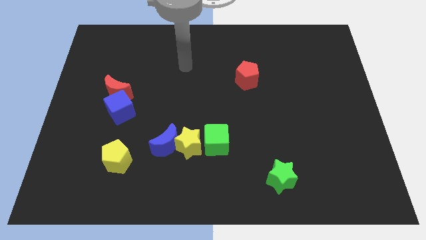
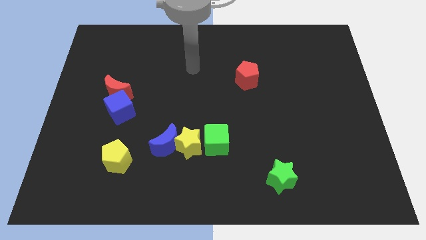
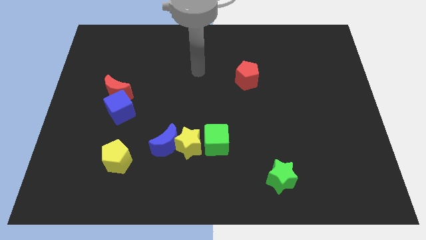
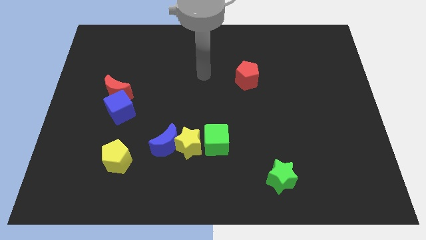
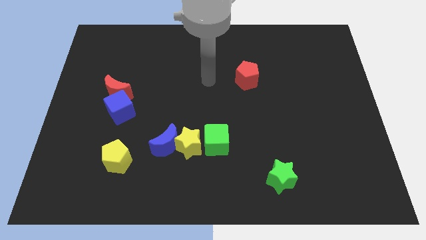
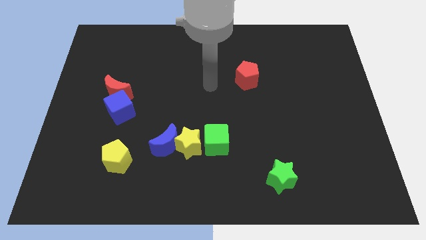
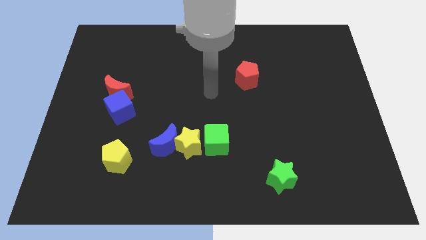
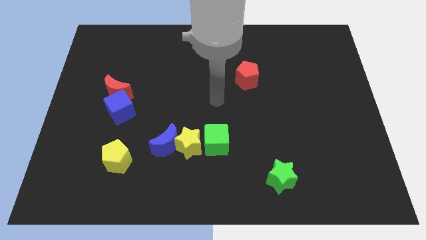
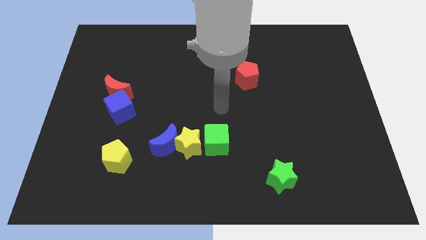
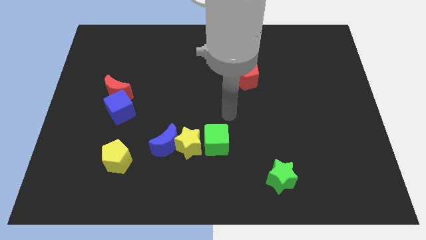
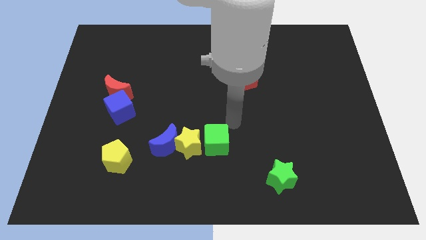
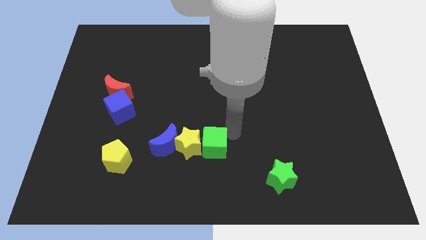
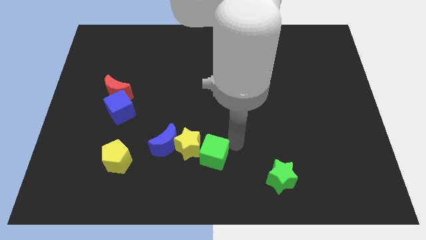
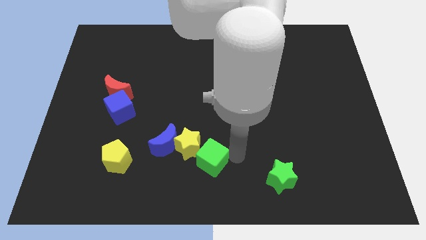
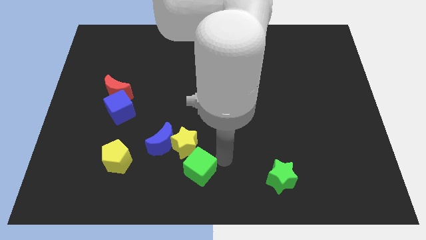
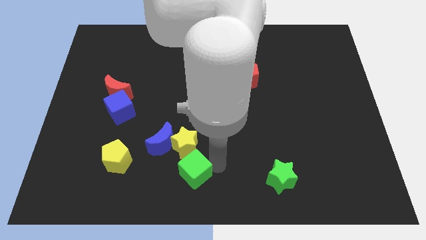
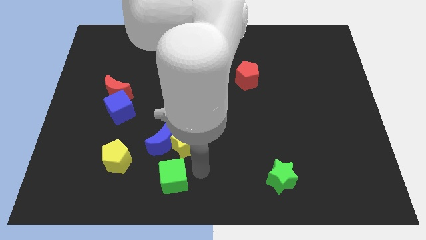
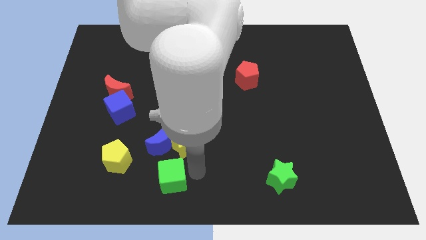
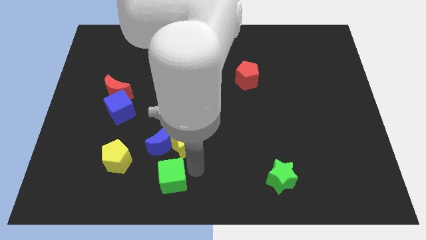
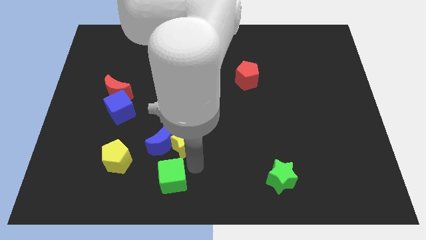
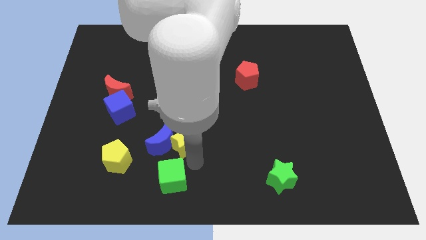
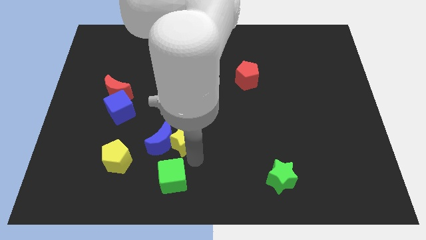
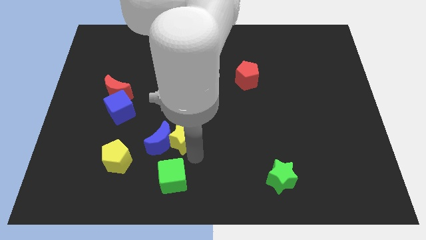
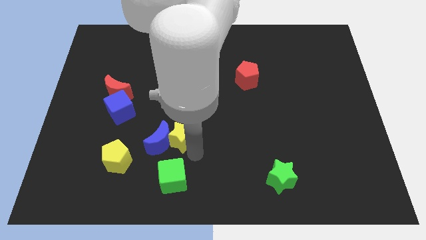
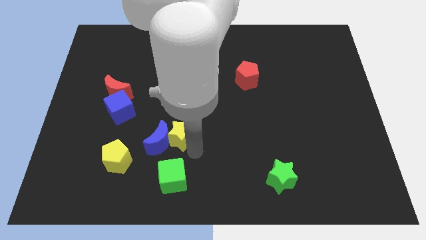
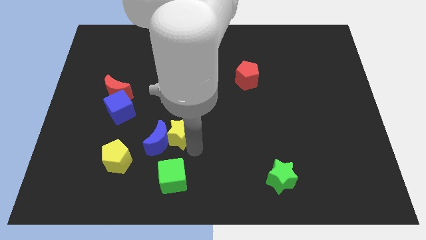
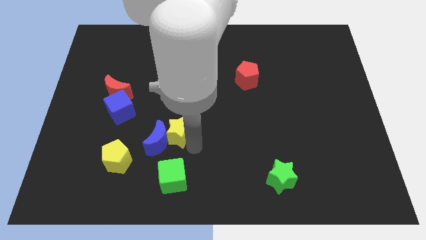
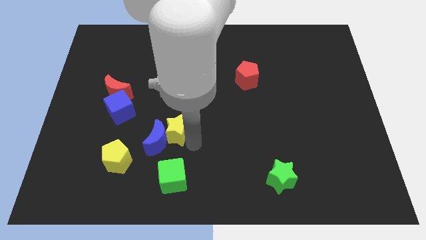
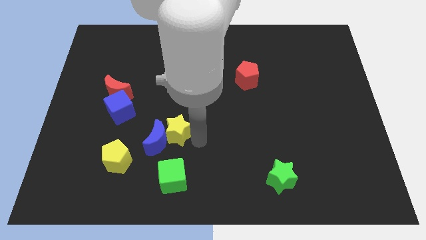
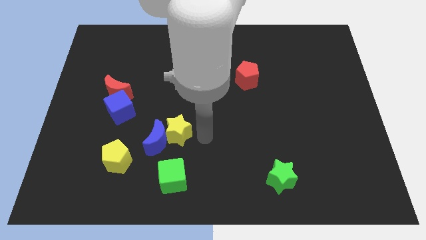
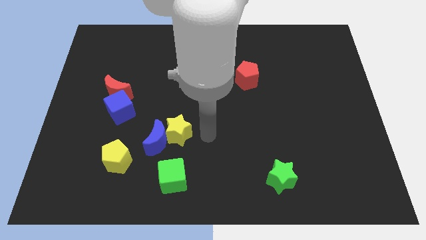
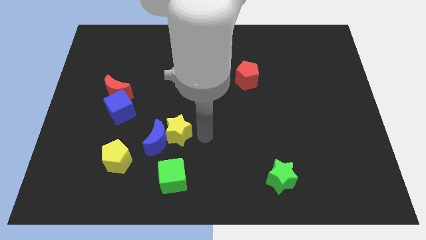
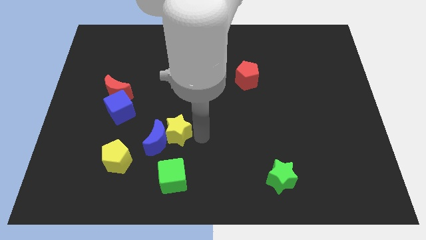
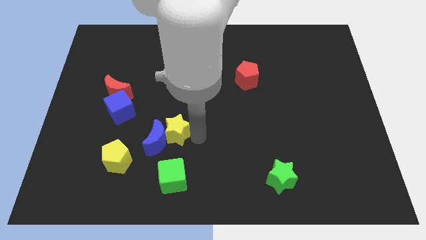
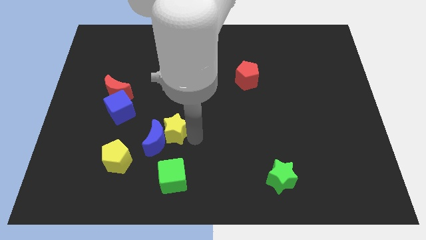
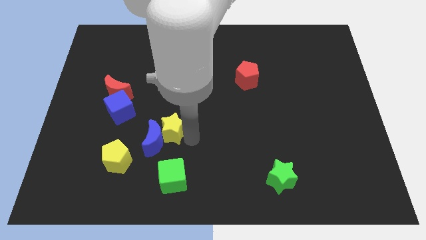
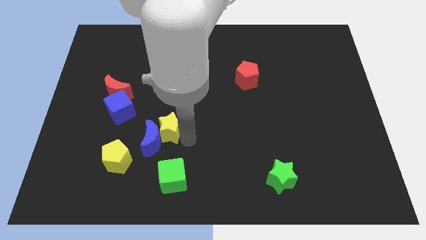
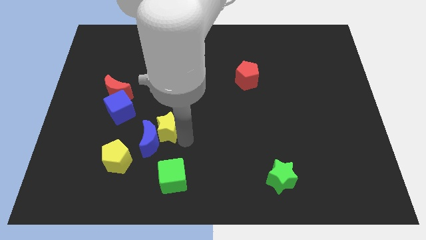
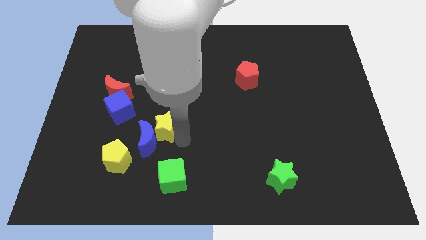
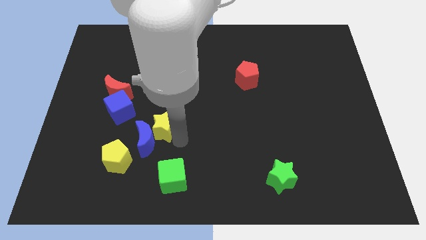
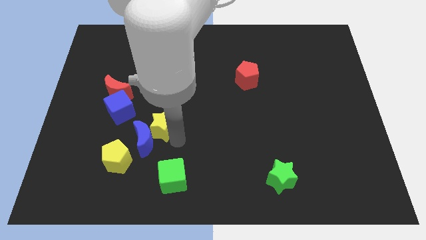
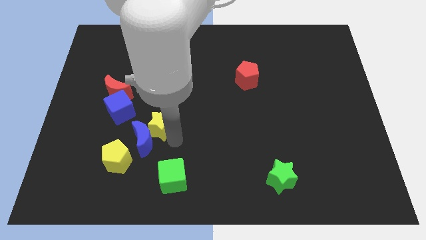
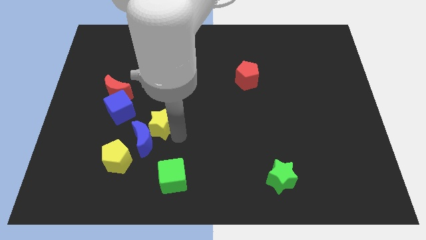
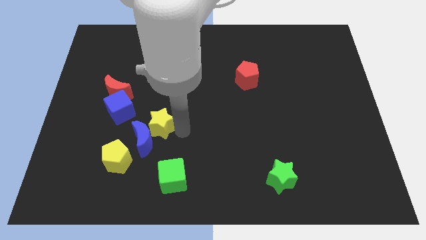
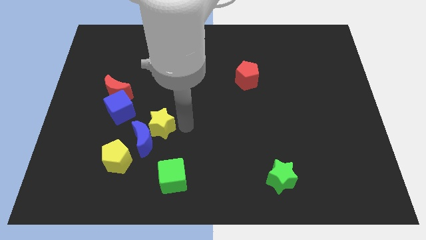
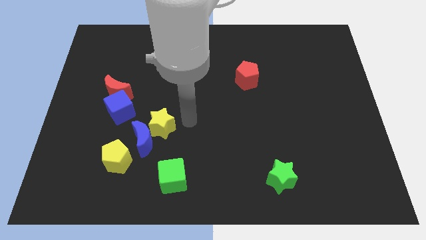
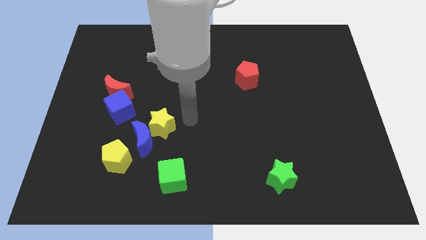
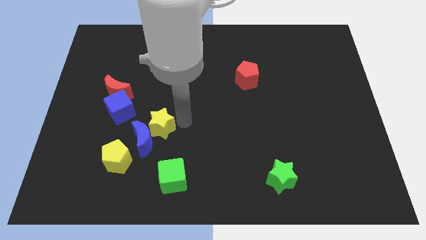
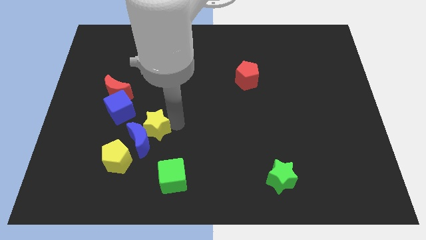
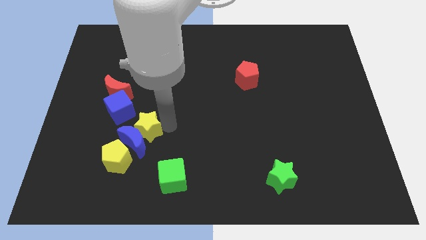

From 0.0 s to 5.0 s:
slightly slide the yellow star to the left

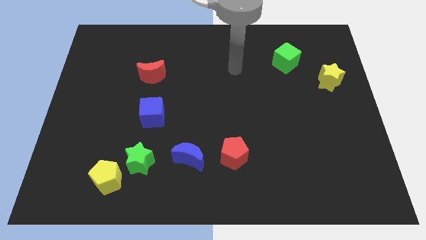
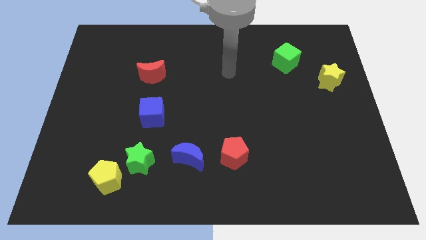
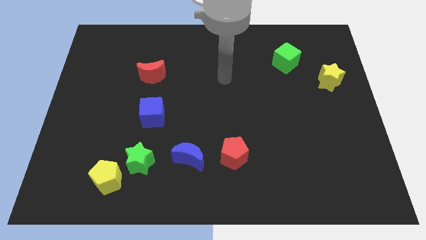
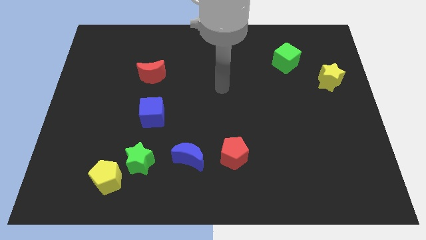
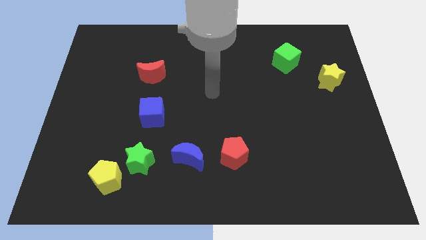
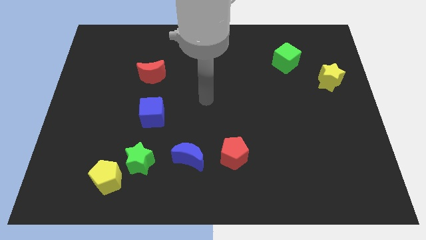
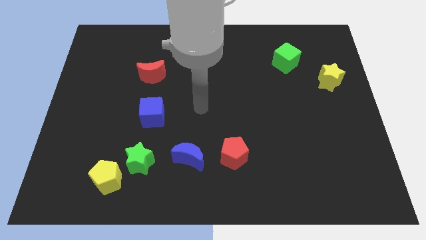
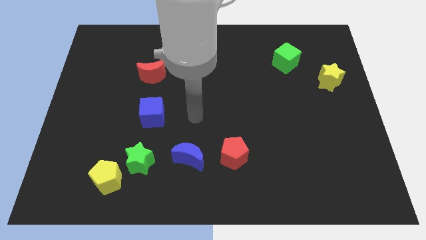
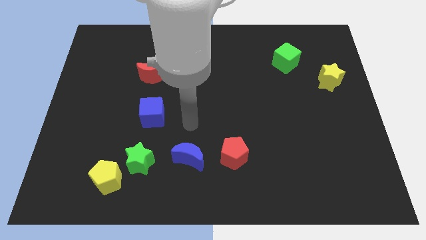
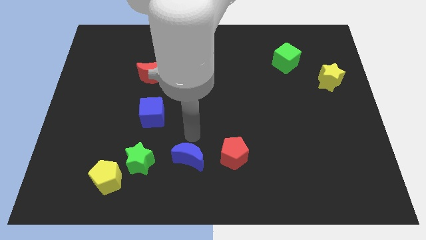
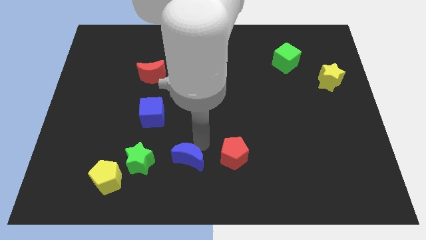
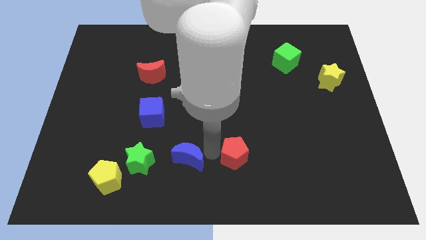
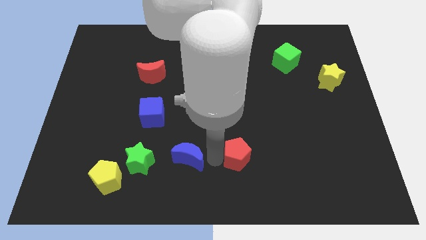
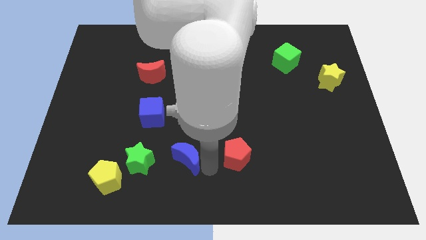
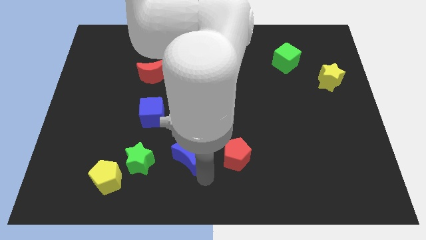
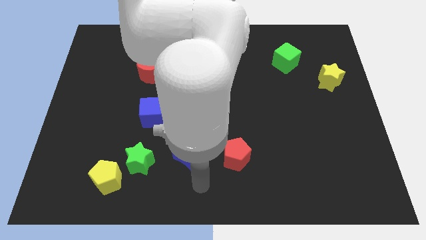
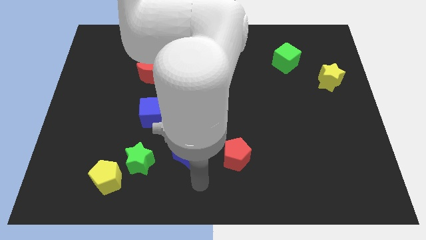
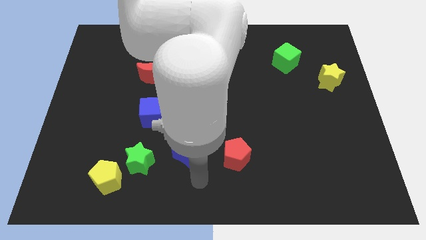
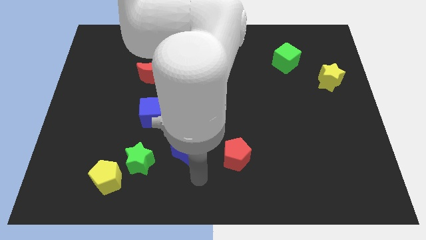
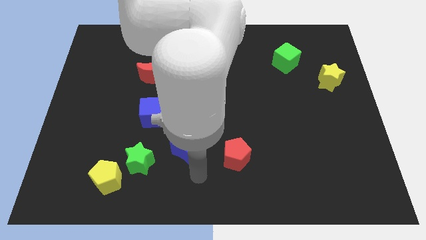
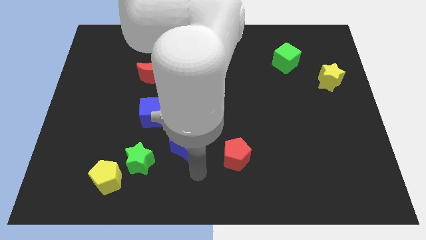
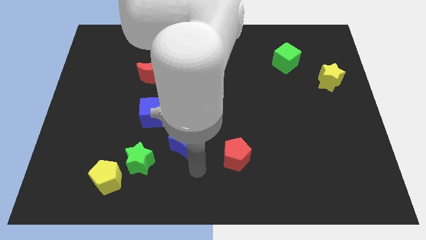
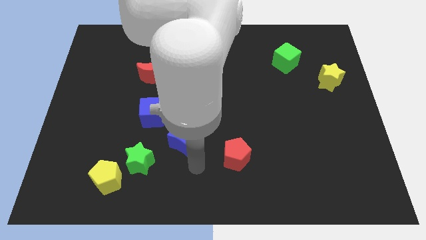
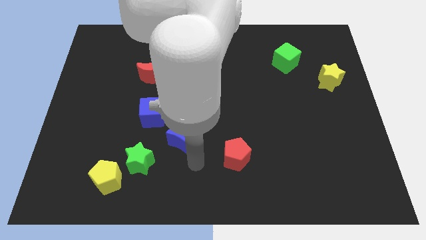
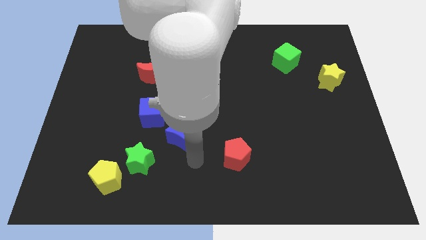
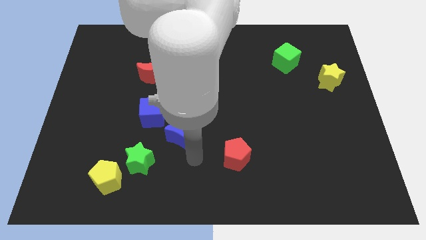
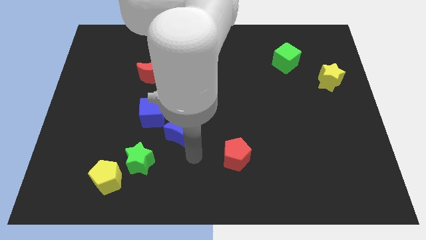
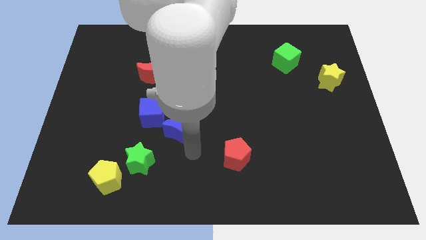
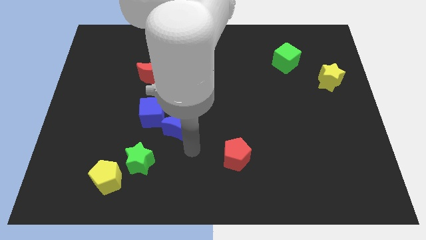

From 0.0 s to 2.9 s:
push the blue moon up a bit
